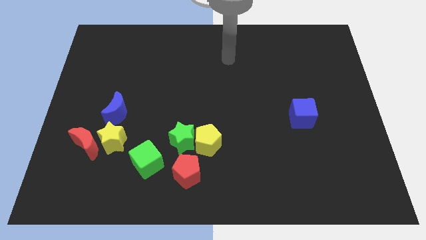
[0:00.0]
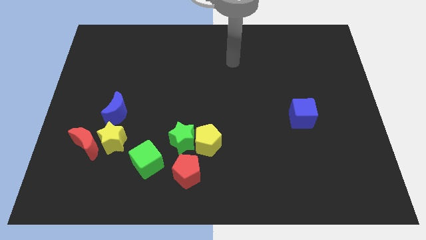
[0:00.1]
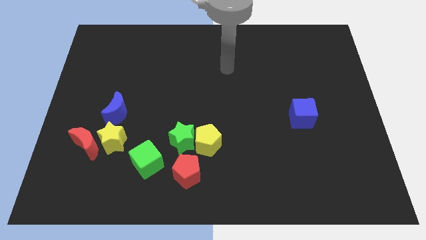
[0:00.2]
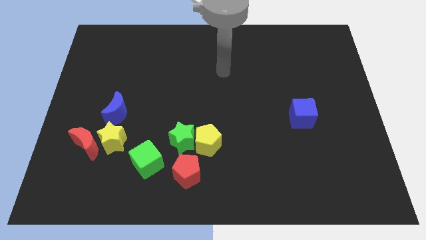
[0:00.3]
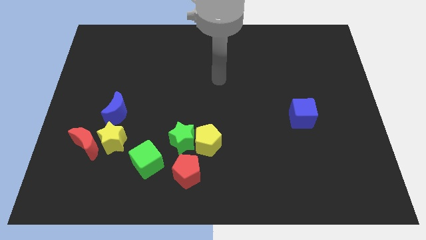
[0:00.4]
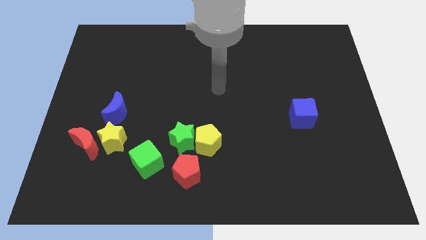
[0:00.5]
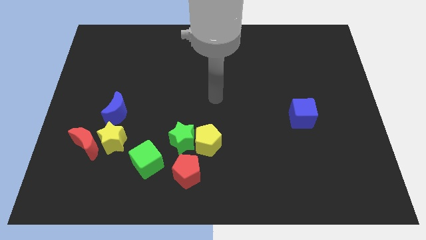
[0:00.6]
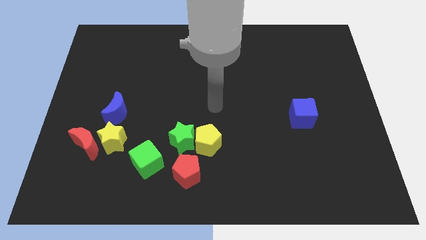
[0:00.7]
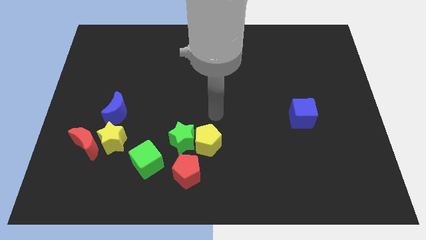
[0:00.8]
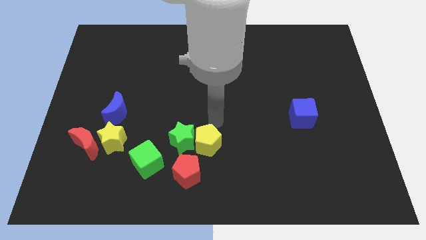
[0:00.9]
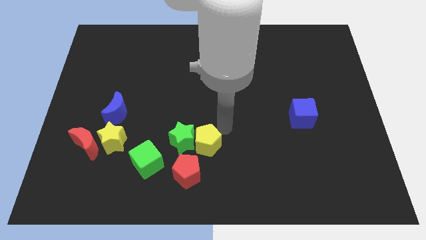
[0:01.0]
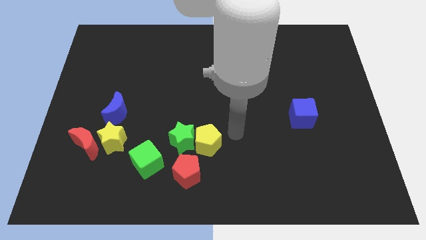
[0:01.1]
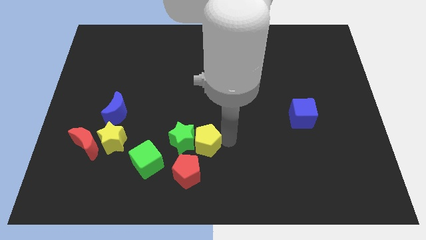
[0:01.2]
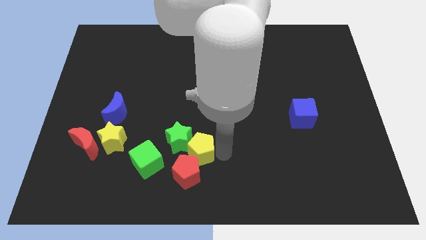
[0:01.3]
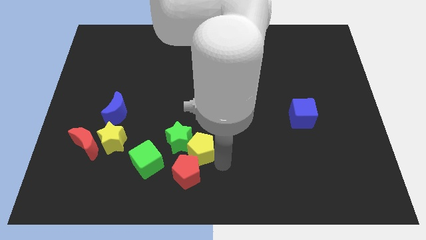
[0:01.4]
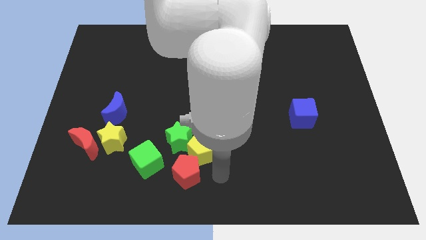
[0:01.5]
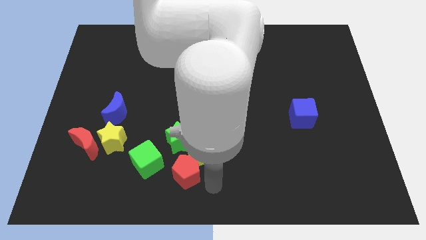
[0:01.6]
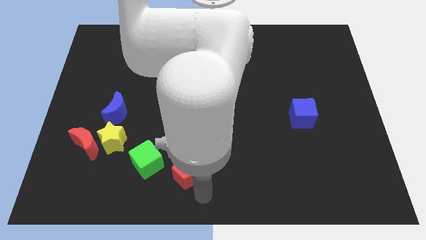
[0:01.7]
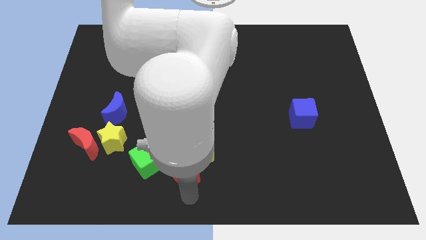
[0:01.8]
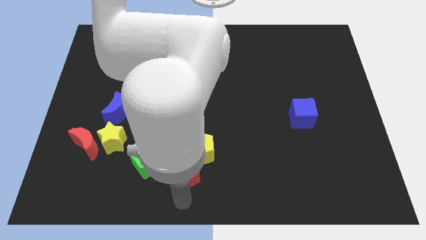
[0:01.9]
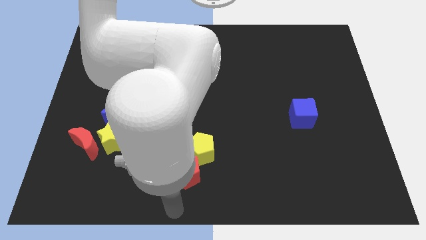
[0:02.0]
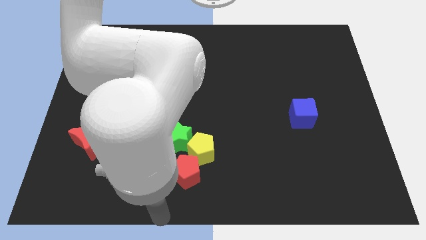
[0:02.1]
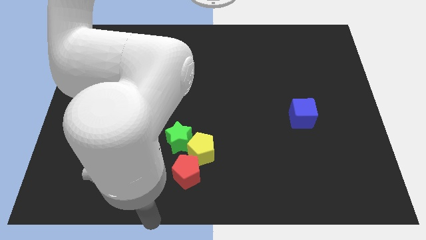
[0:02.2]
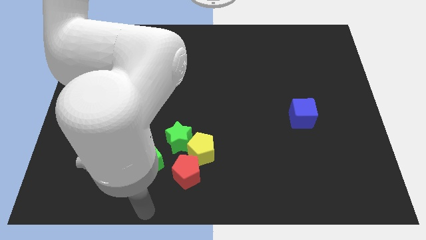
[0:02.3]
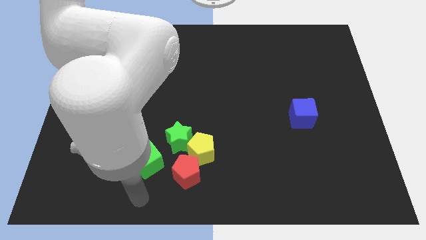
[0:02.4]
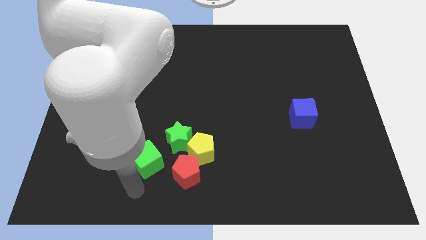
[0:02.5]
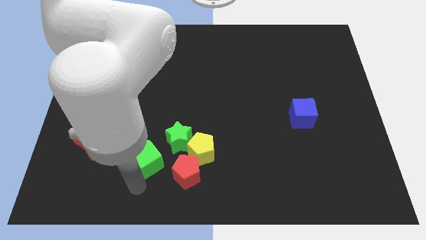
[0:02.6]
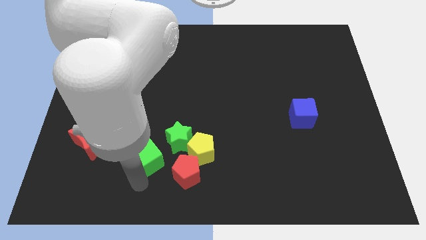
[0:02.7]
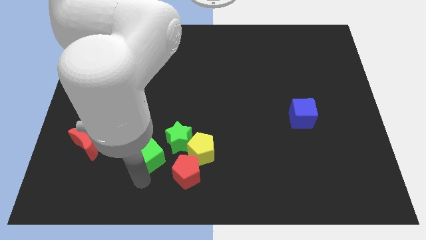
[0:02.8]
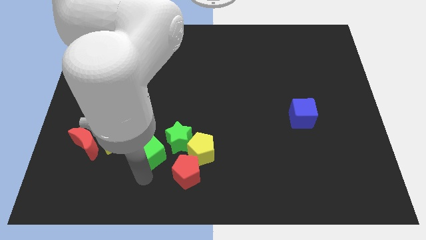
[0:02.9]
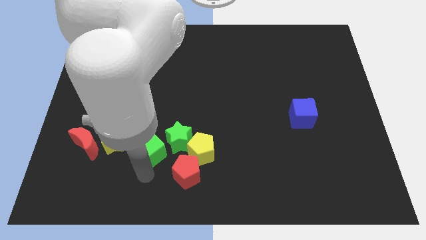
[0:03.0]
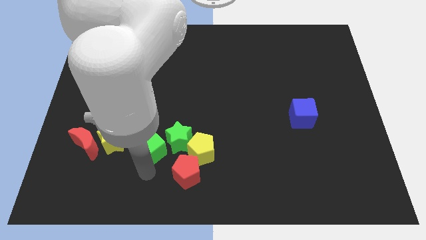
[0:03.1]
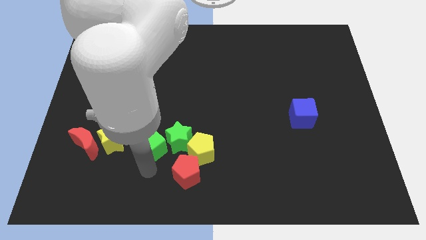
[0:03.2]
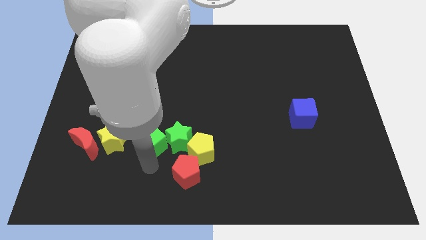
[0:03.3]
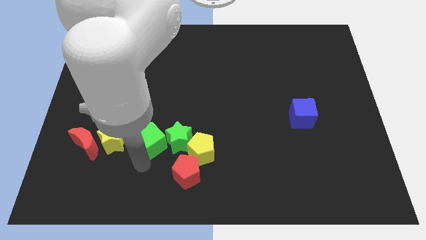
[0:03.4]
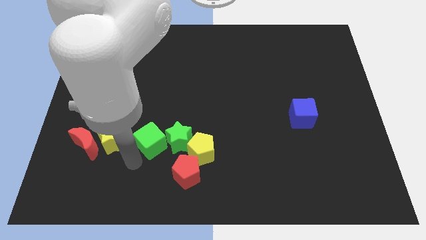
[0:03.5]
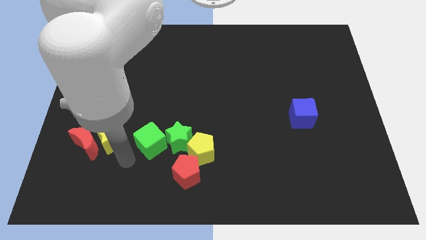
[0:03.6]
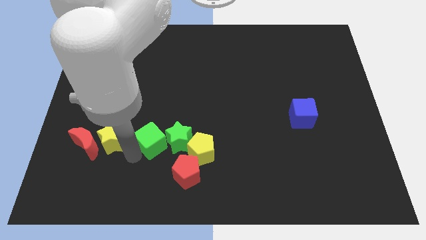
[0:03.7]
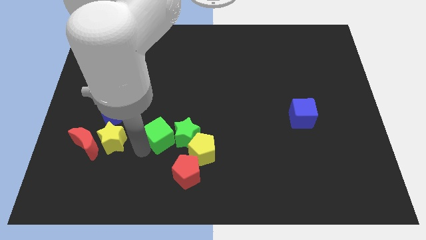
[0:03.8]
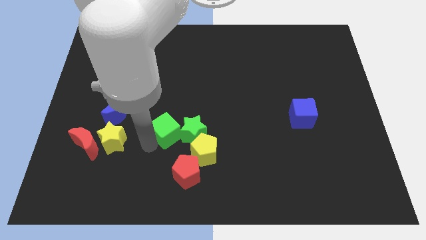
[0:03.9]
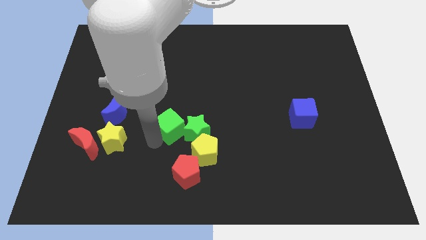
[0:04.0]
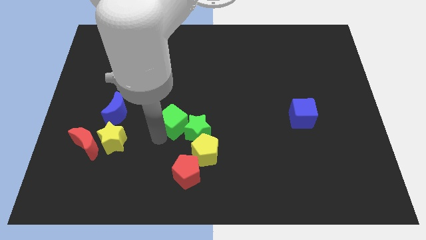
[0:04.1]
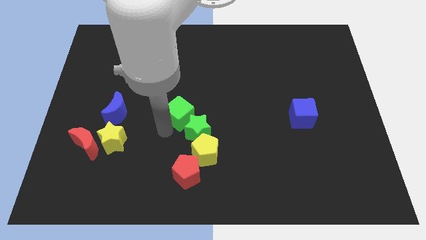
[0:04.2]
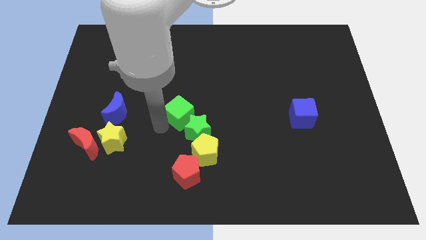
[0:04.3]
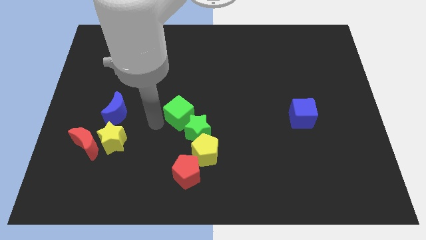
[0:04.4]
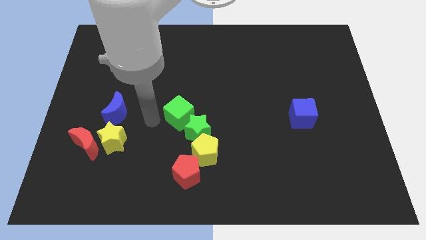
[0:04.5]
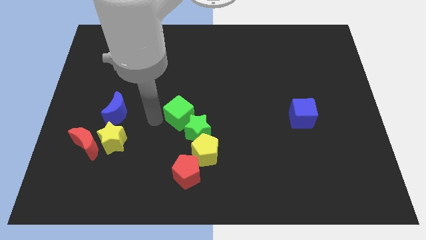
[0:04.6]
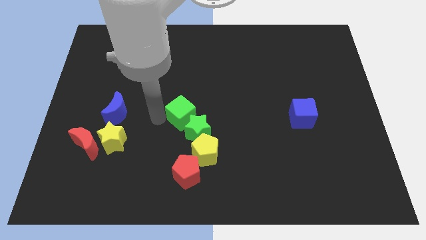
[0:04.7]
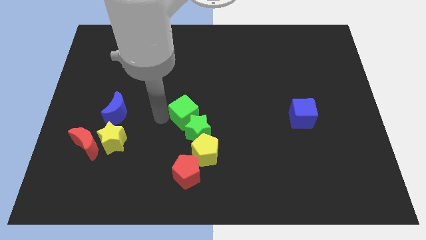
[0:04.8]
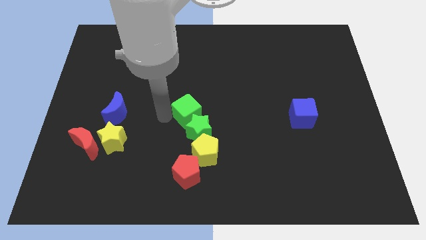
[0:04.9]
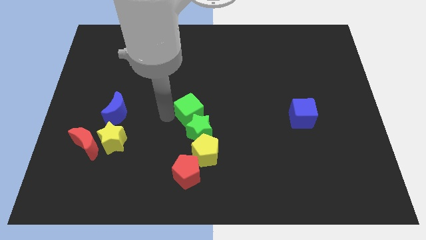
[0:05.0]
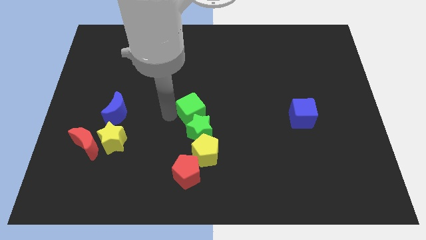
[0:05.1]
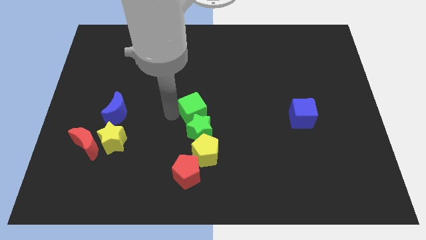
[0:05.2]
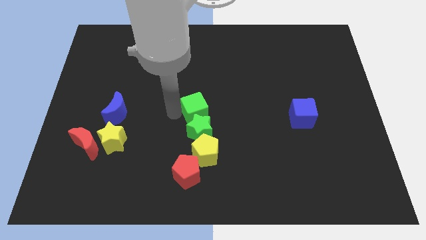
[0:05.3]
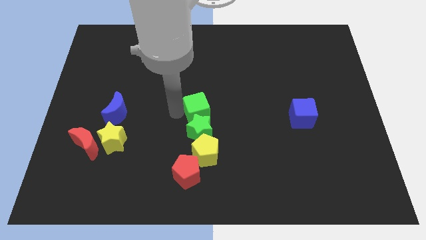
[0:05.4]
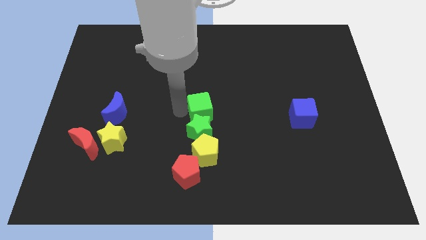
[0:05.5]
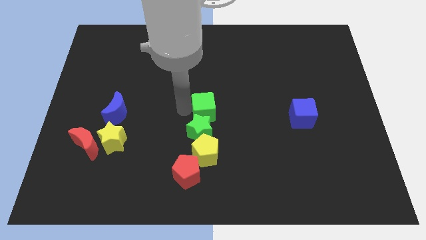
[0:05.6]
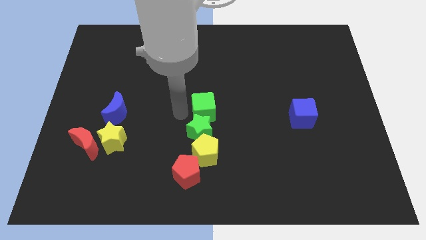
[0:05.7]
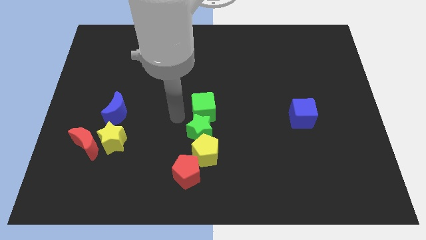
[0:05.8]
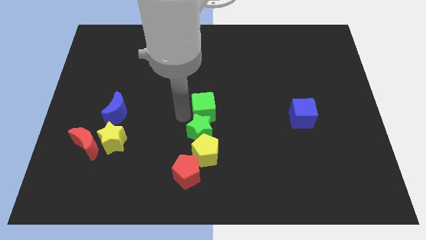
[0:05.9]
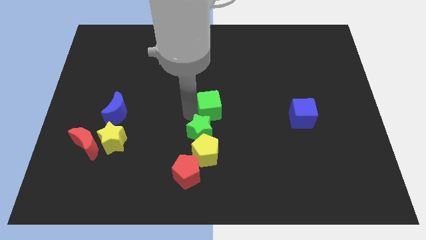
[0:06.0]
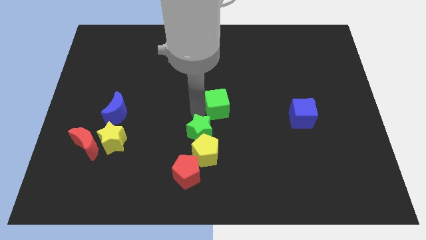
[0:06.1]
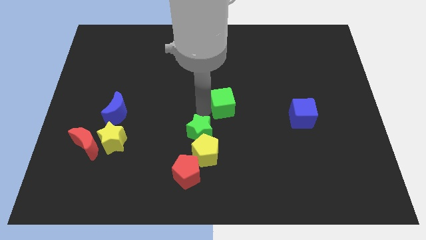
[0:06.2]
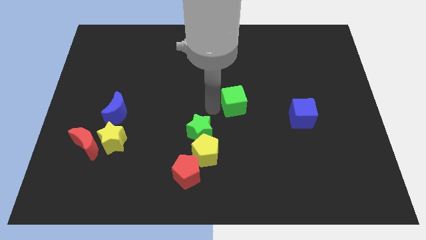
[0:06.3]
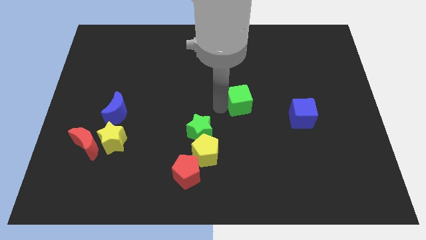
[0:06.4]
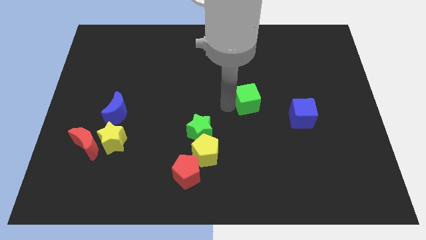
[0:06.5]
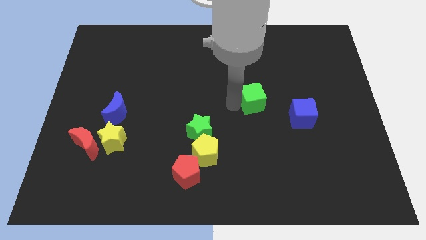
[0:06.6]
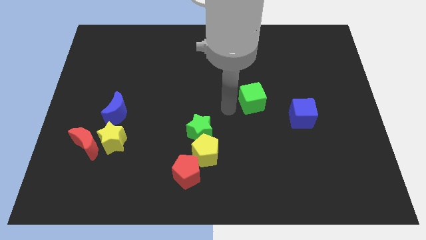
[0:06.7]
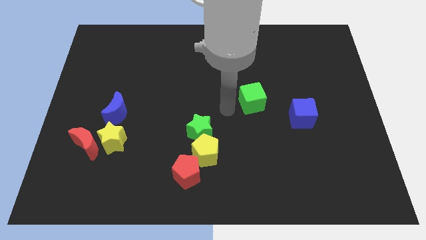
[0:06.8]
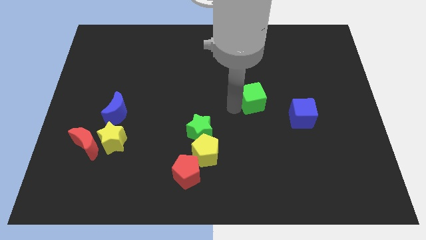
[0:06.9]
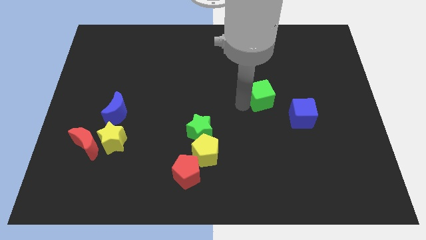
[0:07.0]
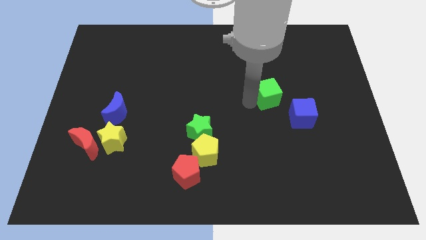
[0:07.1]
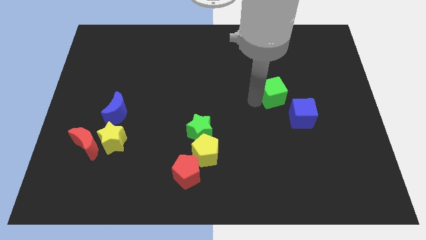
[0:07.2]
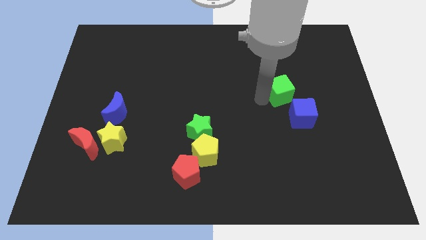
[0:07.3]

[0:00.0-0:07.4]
push the green cube to the top side of the blue cube

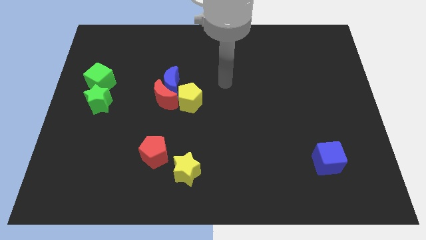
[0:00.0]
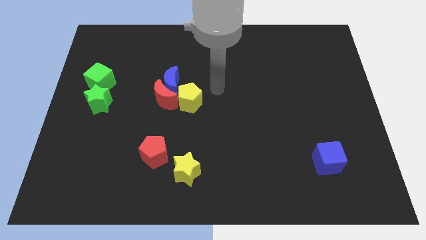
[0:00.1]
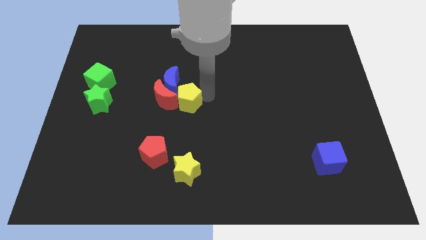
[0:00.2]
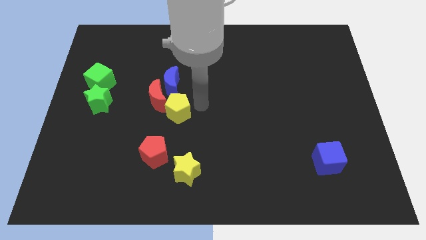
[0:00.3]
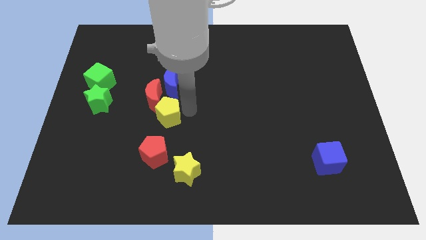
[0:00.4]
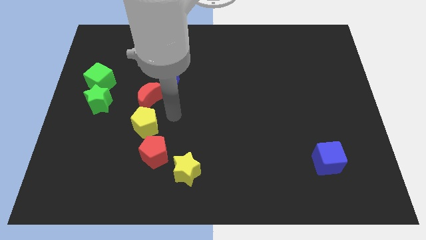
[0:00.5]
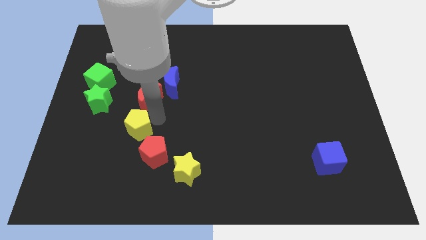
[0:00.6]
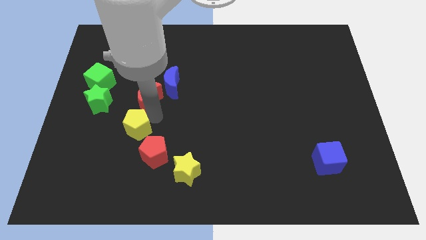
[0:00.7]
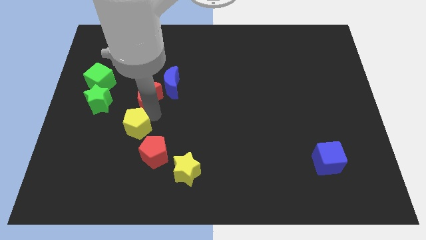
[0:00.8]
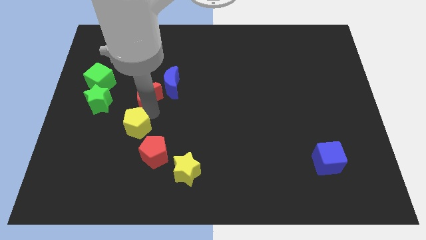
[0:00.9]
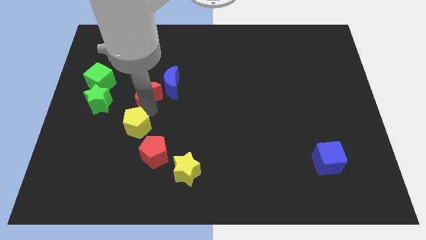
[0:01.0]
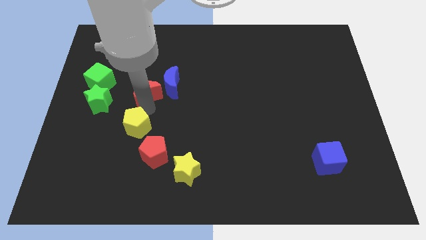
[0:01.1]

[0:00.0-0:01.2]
push the red moon just right of the green cube
